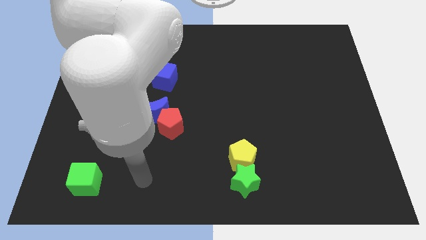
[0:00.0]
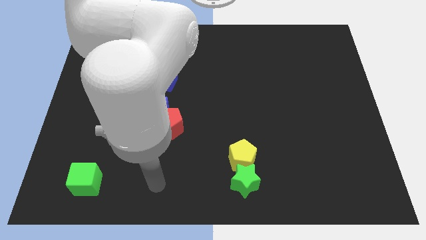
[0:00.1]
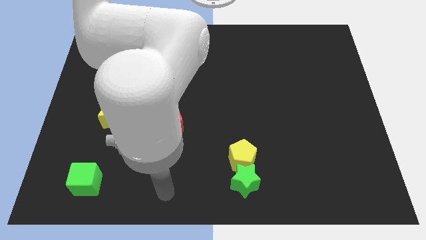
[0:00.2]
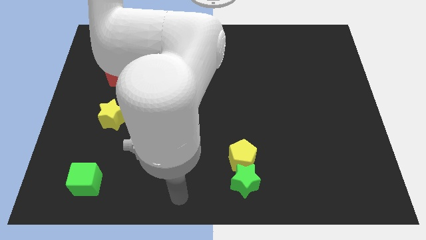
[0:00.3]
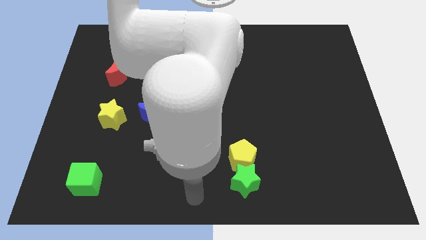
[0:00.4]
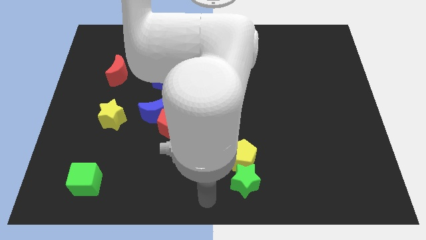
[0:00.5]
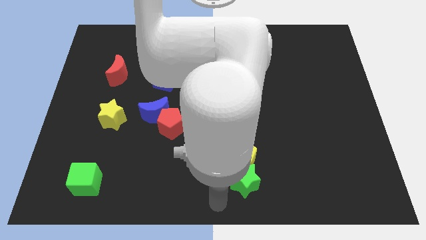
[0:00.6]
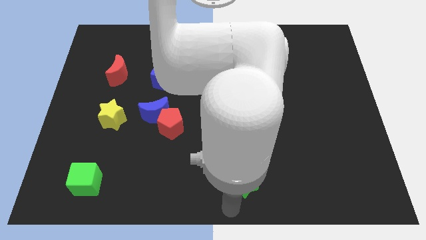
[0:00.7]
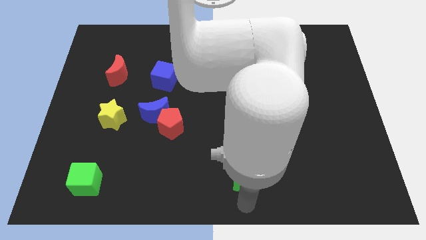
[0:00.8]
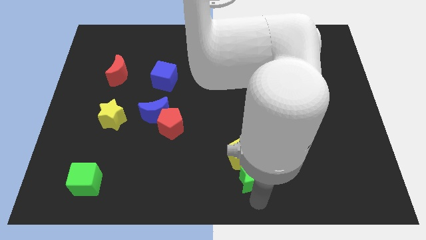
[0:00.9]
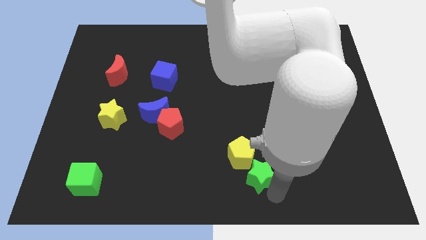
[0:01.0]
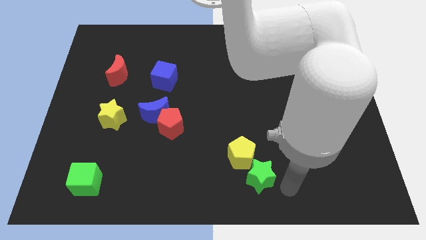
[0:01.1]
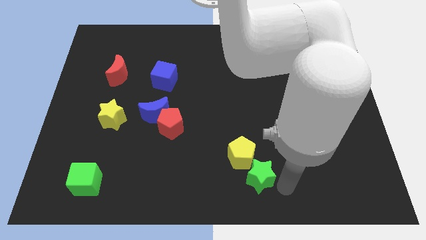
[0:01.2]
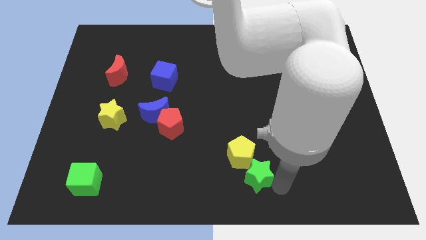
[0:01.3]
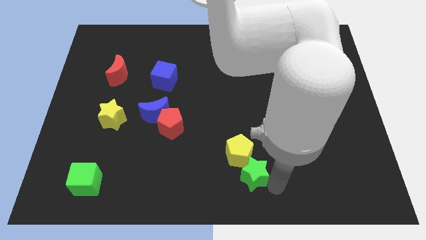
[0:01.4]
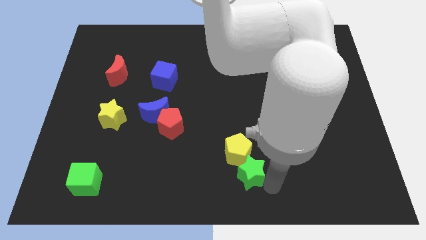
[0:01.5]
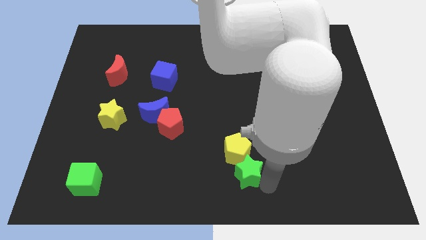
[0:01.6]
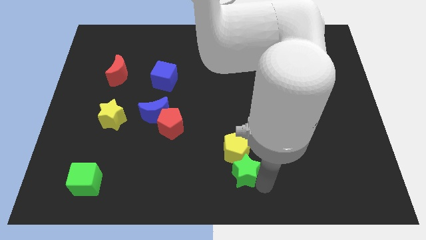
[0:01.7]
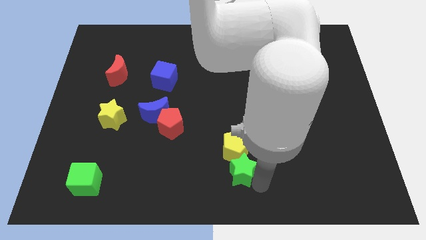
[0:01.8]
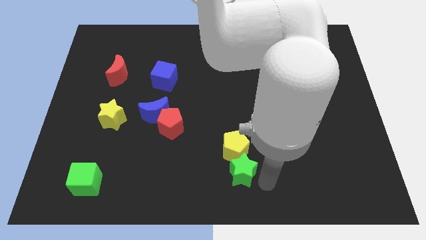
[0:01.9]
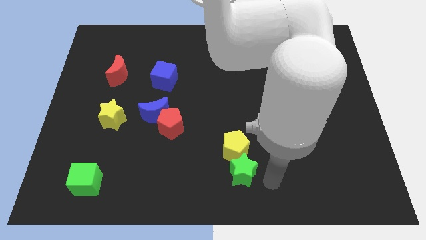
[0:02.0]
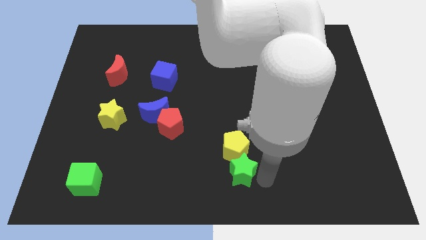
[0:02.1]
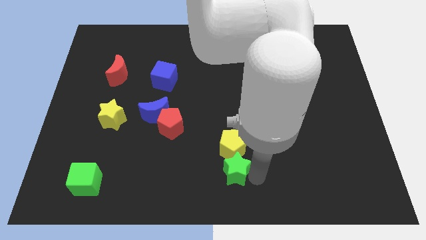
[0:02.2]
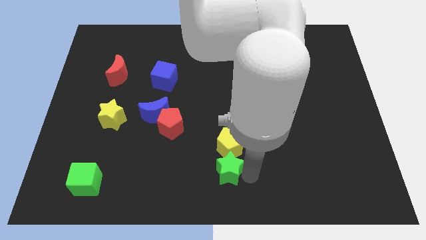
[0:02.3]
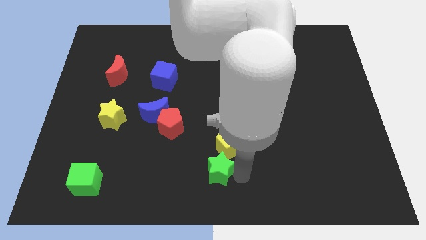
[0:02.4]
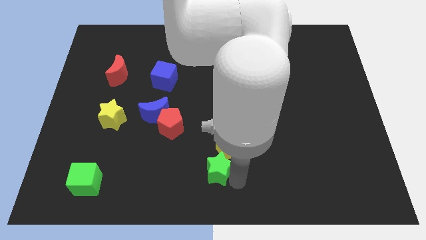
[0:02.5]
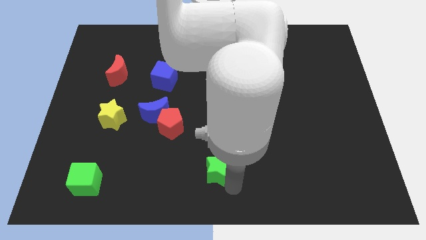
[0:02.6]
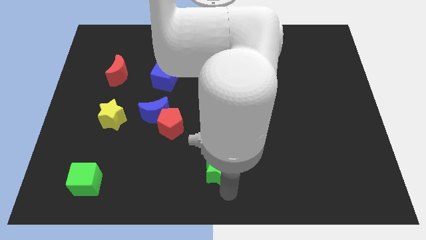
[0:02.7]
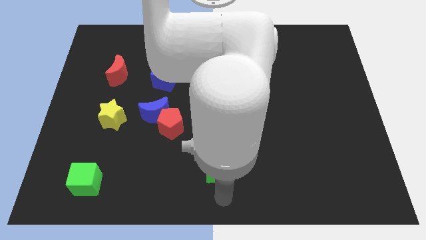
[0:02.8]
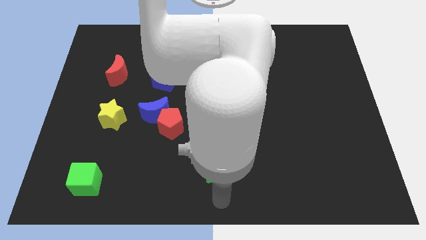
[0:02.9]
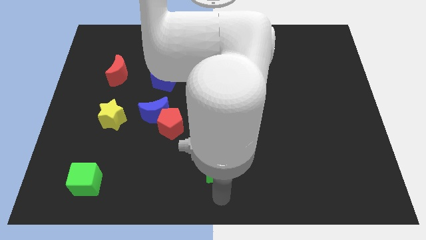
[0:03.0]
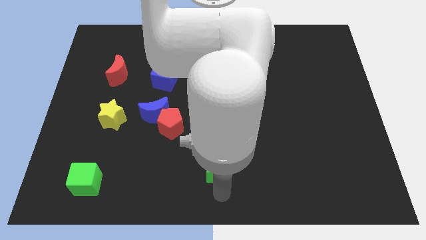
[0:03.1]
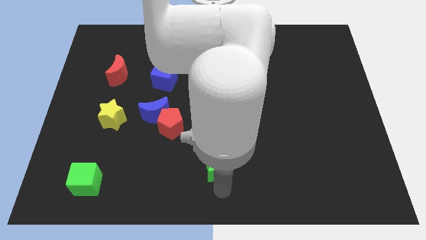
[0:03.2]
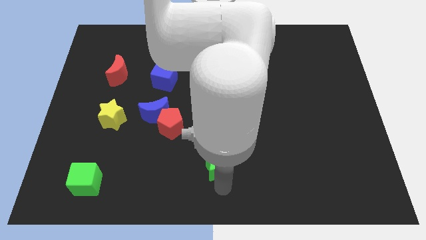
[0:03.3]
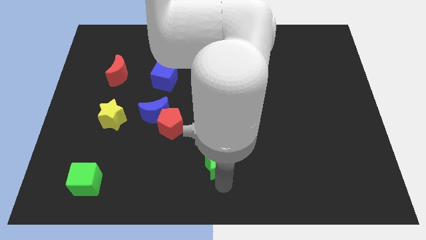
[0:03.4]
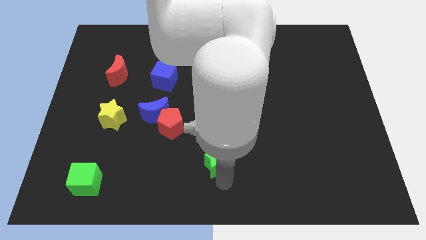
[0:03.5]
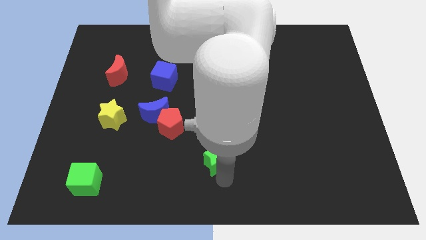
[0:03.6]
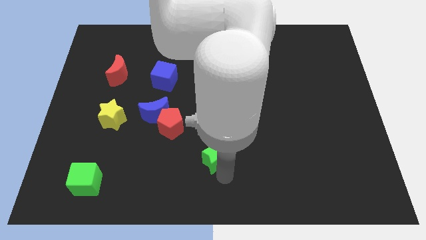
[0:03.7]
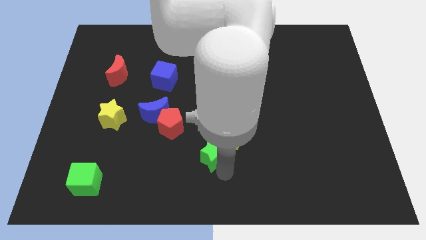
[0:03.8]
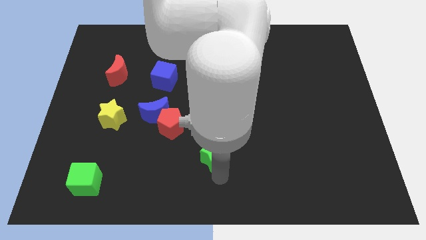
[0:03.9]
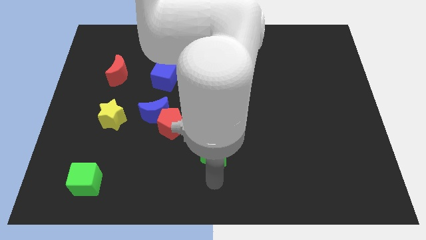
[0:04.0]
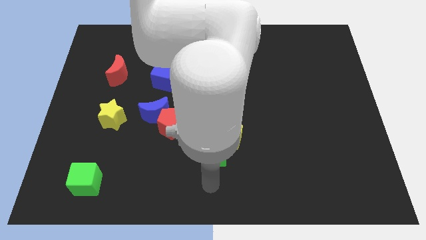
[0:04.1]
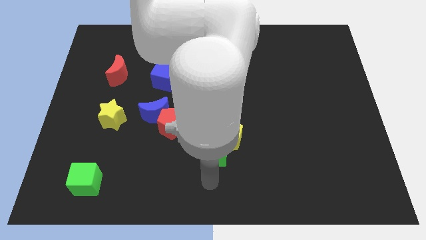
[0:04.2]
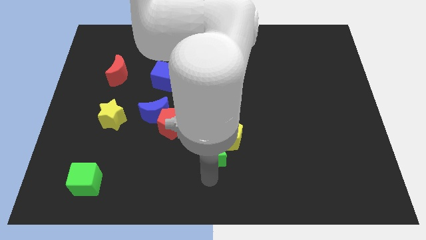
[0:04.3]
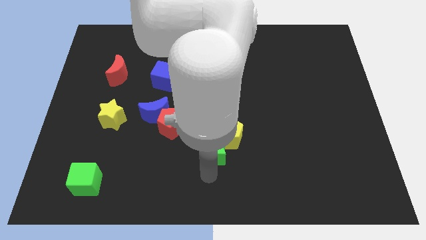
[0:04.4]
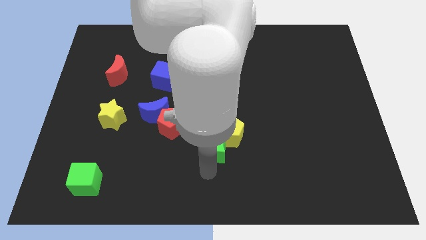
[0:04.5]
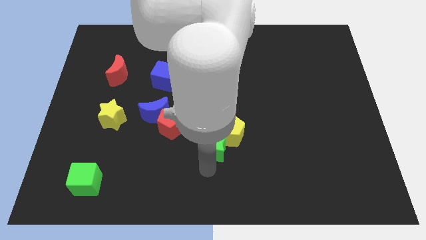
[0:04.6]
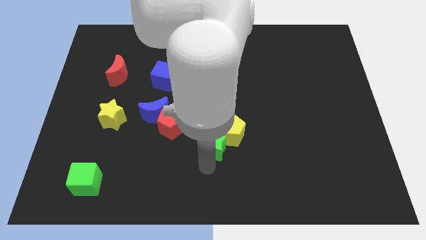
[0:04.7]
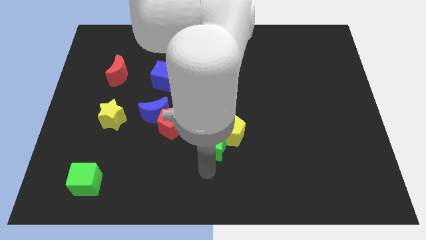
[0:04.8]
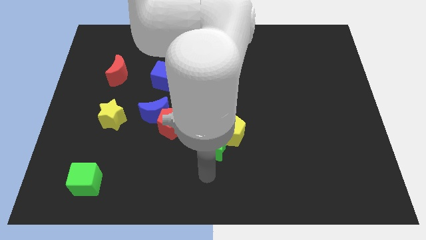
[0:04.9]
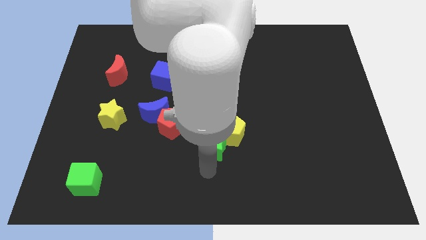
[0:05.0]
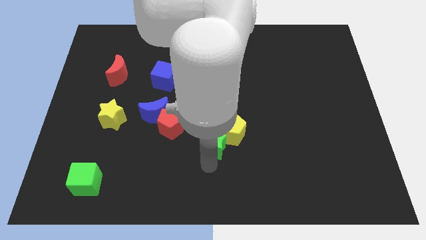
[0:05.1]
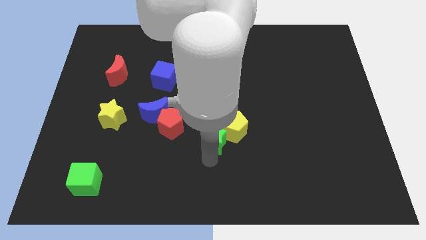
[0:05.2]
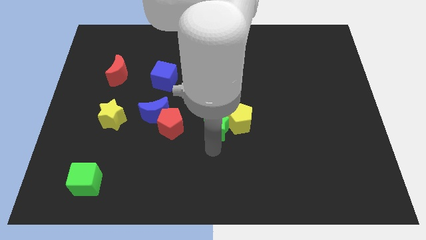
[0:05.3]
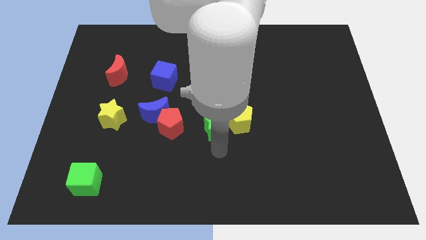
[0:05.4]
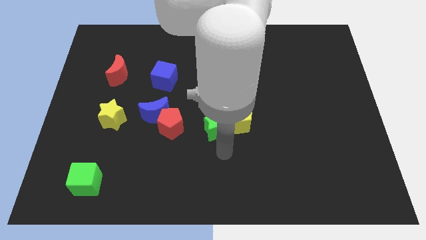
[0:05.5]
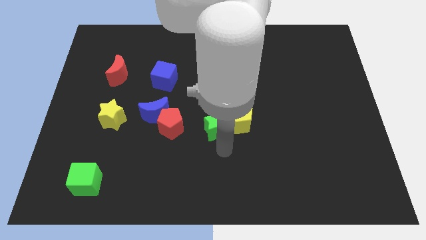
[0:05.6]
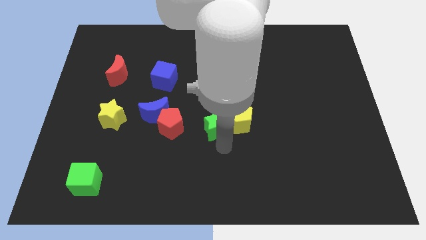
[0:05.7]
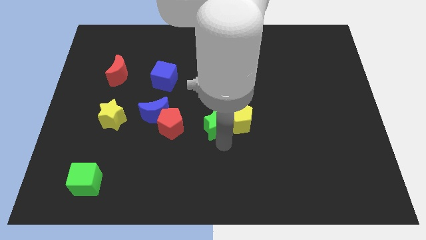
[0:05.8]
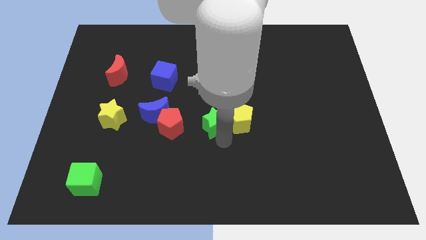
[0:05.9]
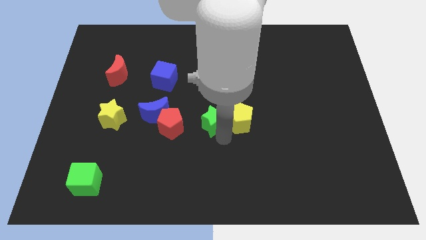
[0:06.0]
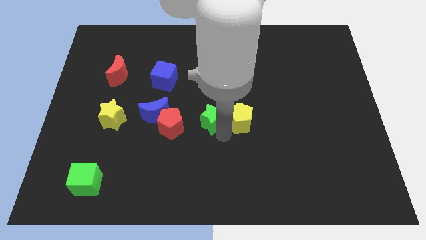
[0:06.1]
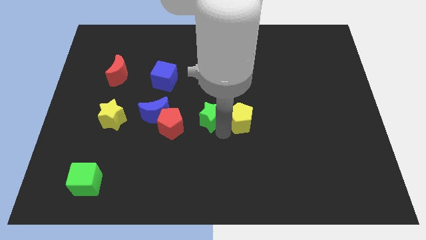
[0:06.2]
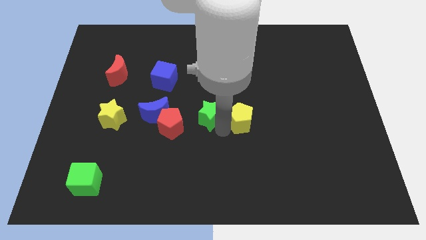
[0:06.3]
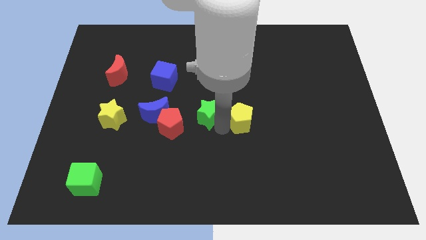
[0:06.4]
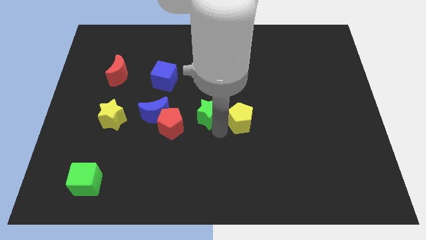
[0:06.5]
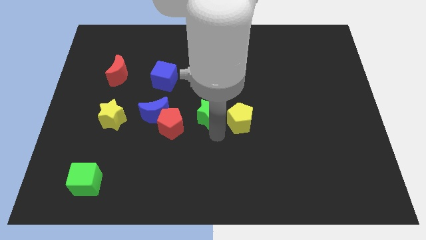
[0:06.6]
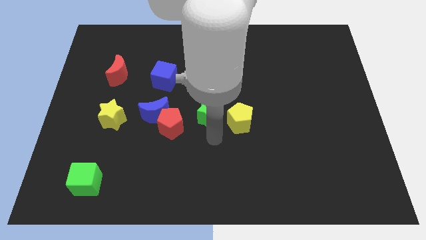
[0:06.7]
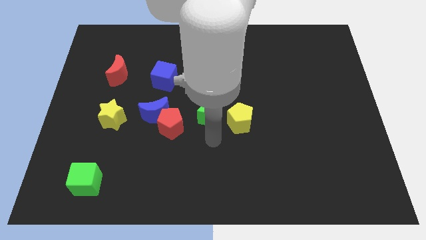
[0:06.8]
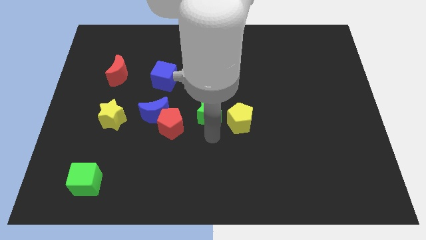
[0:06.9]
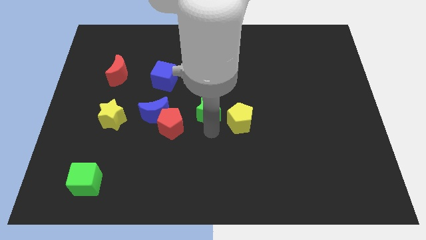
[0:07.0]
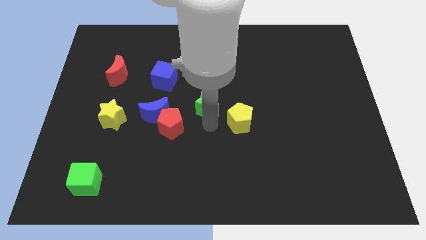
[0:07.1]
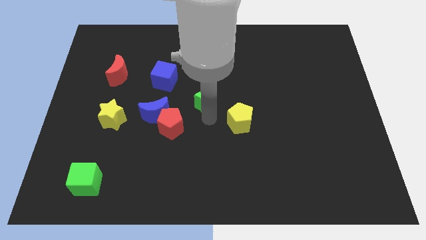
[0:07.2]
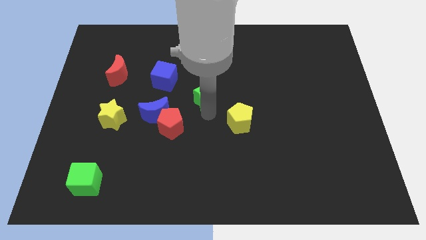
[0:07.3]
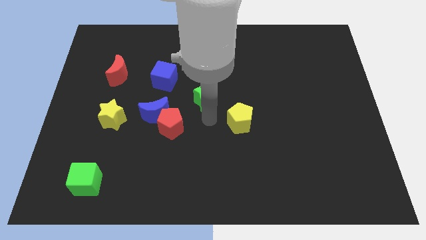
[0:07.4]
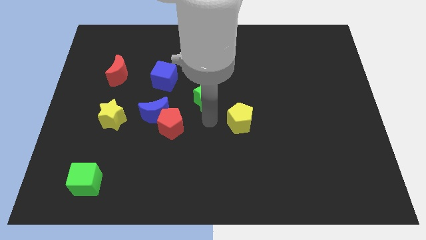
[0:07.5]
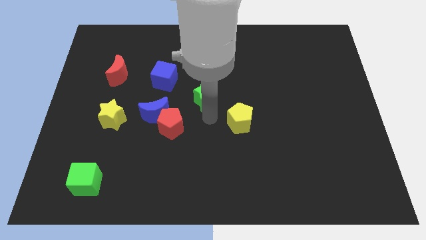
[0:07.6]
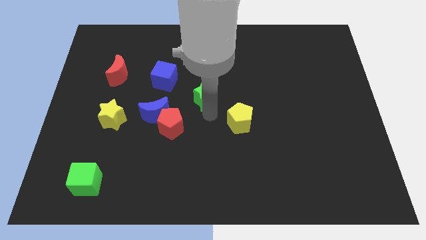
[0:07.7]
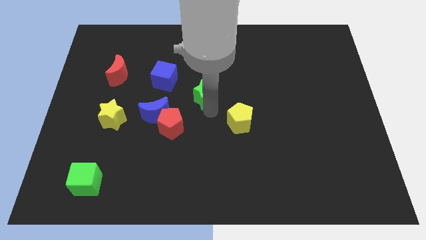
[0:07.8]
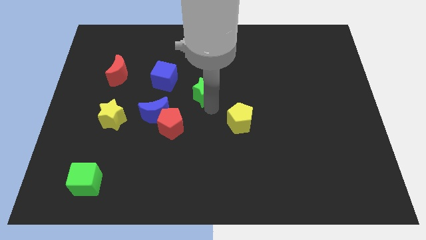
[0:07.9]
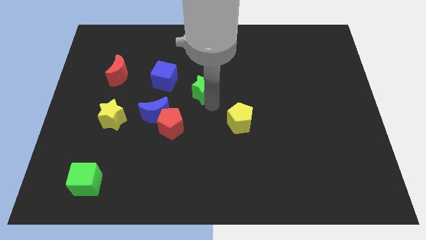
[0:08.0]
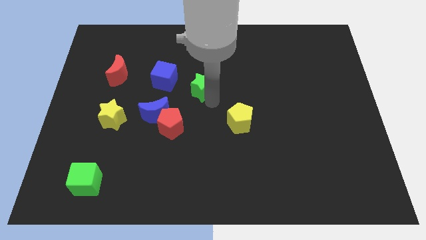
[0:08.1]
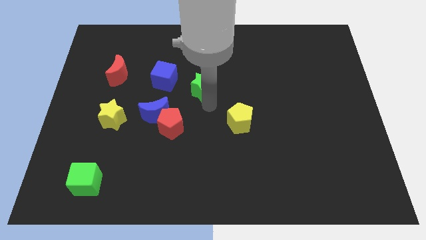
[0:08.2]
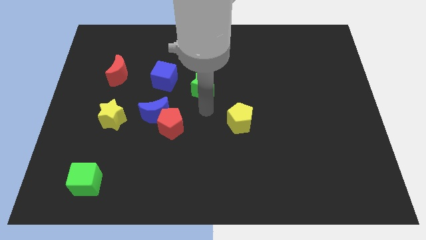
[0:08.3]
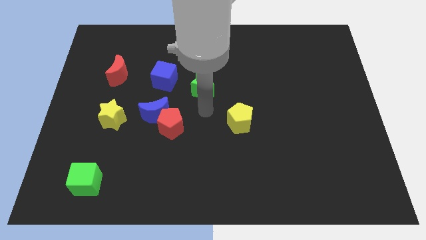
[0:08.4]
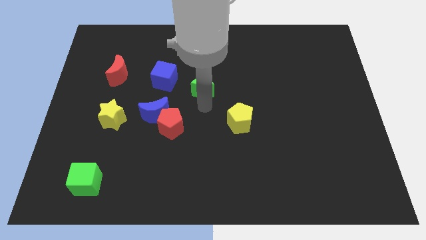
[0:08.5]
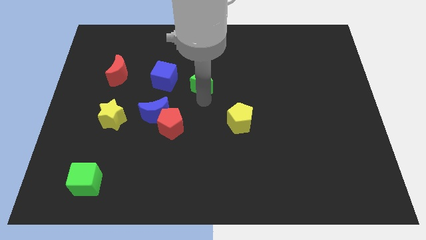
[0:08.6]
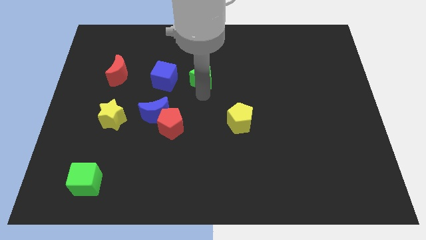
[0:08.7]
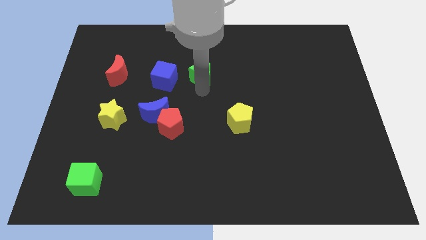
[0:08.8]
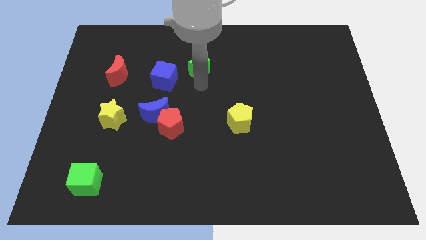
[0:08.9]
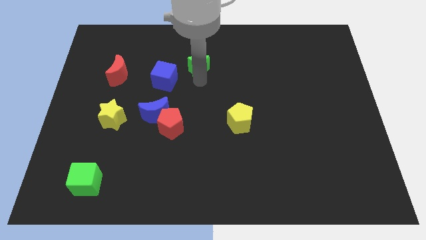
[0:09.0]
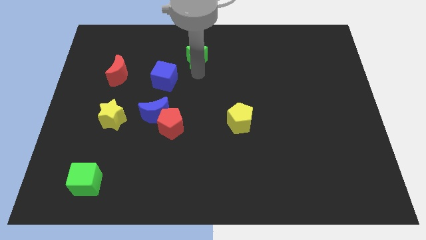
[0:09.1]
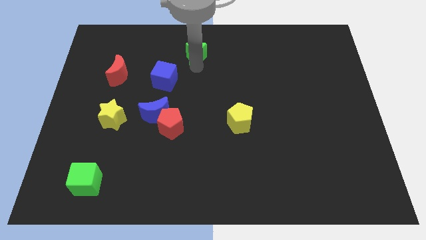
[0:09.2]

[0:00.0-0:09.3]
slide the green star to the top side
